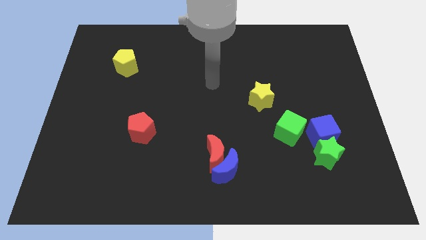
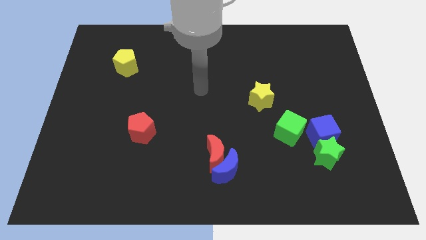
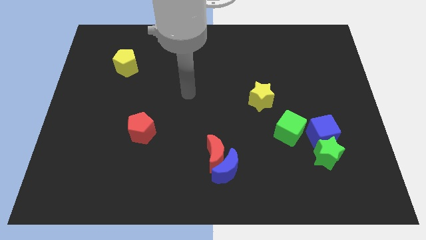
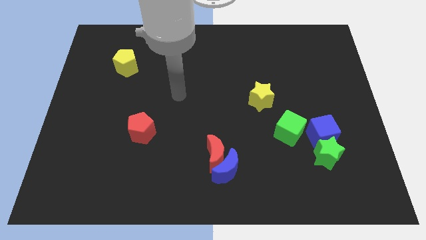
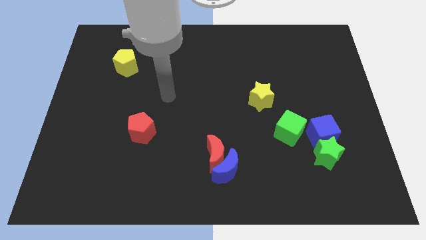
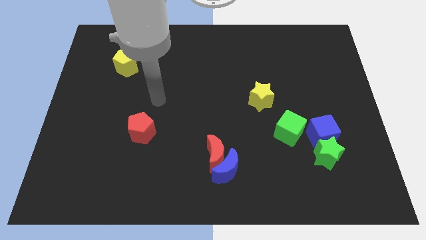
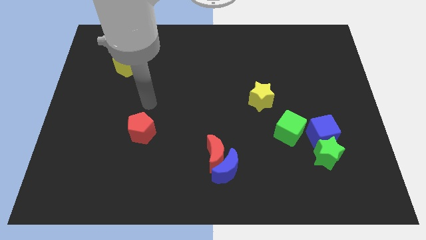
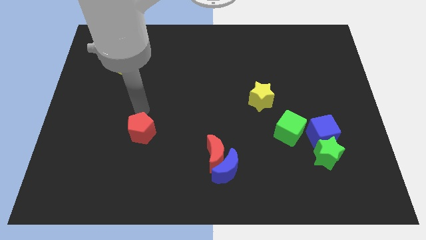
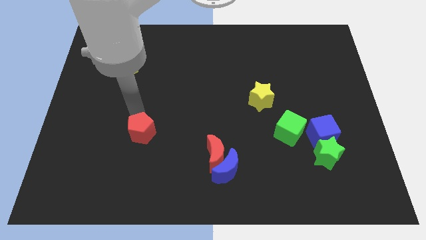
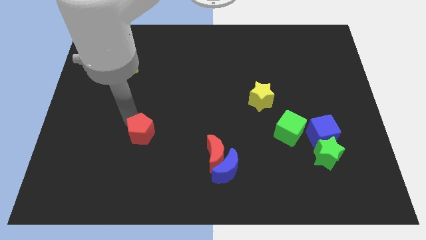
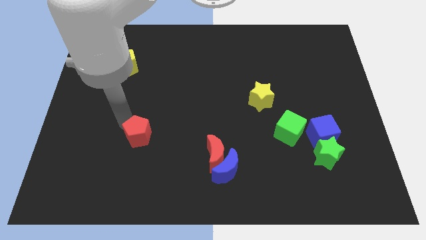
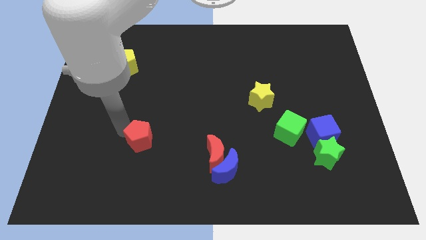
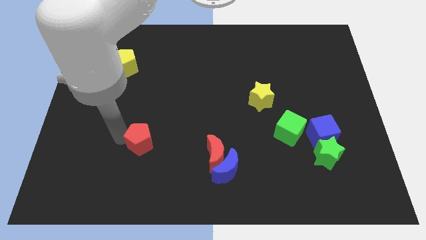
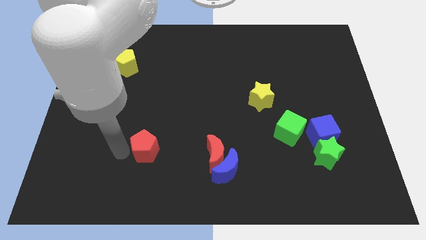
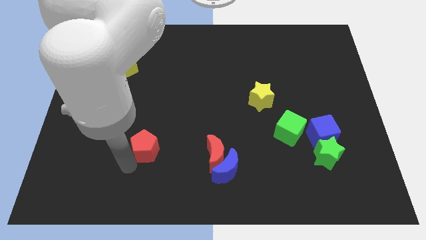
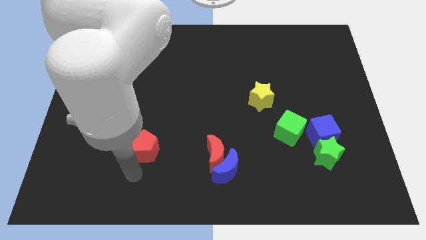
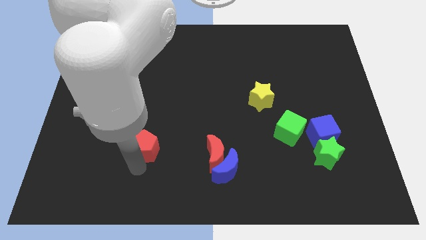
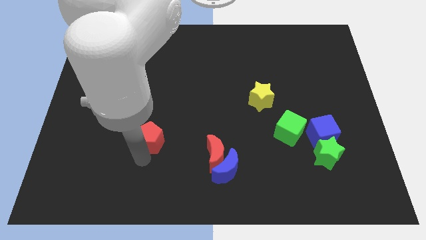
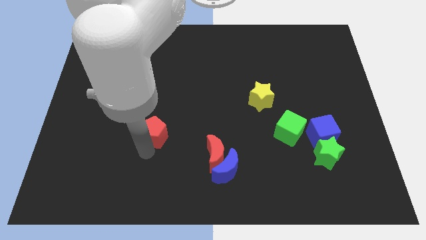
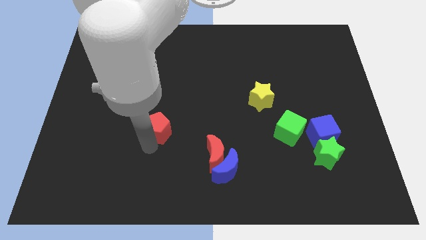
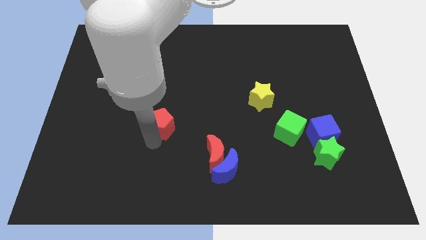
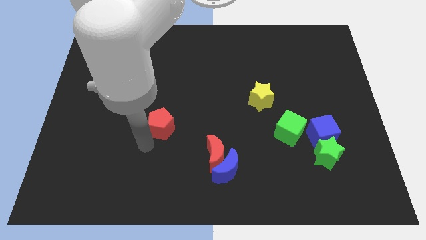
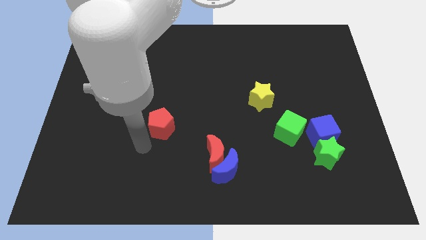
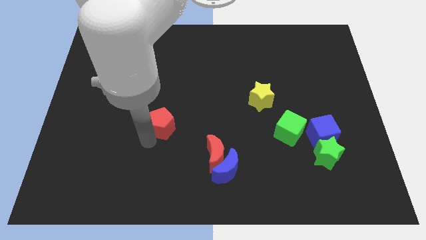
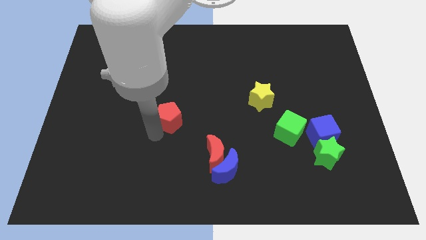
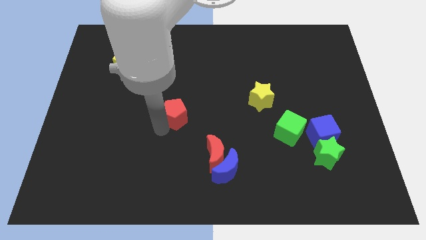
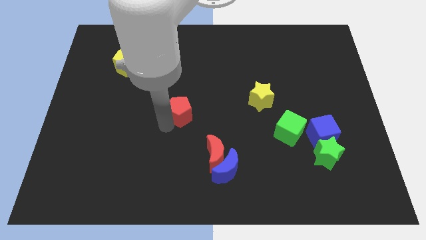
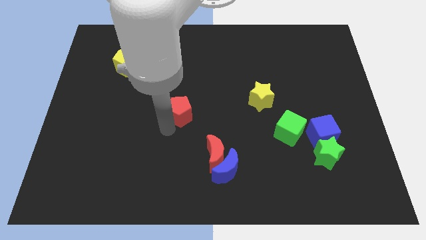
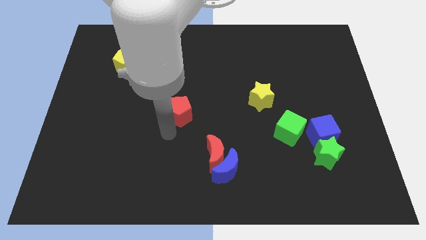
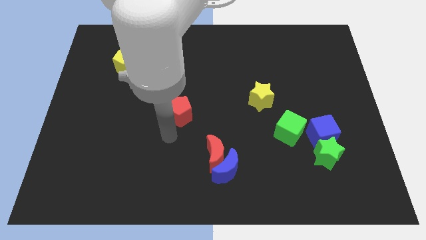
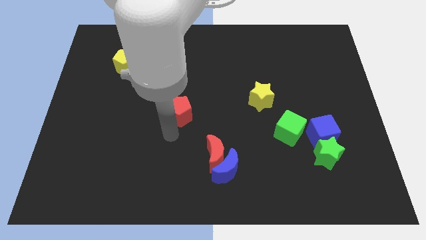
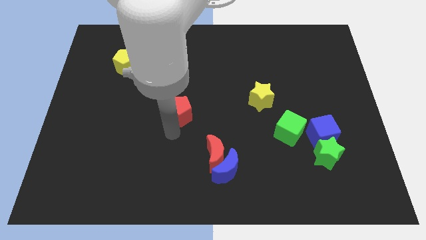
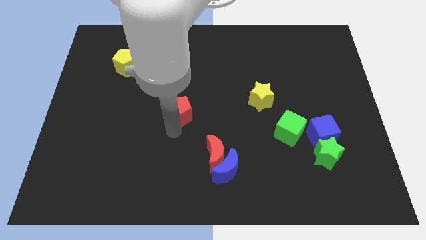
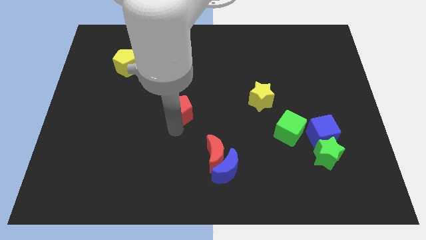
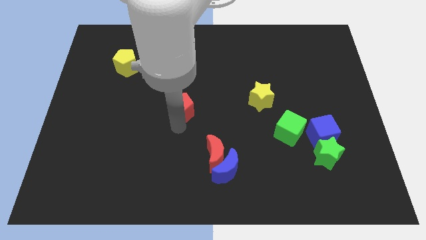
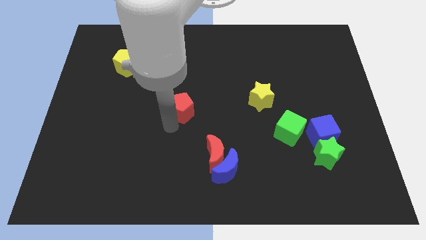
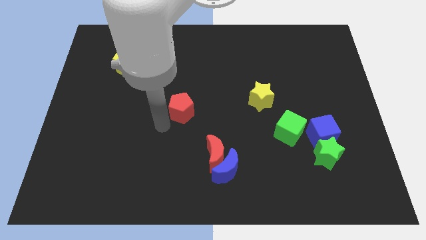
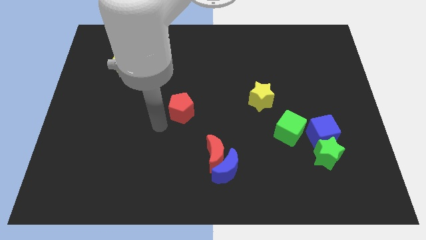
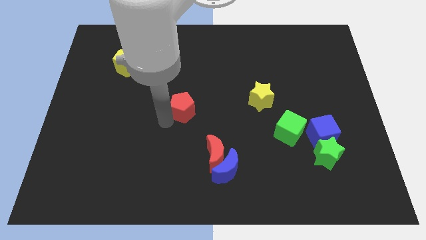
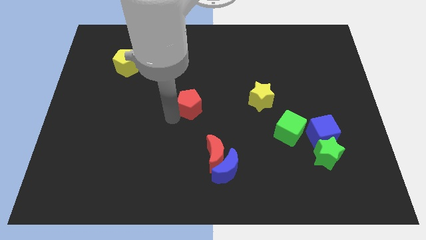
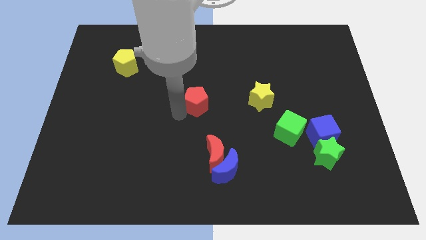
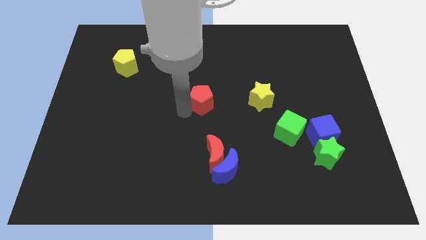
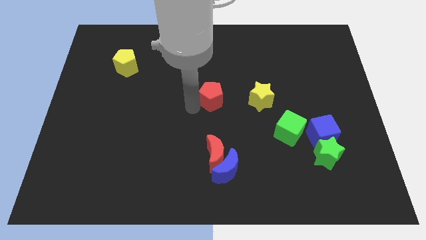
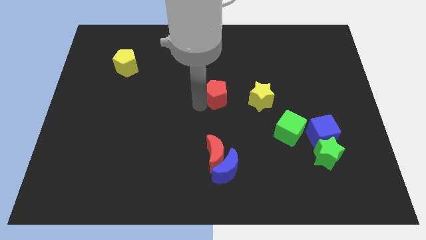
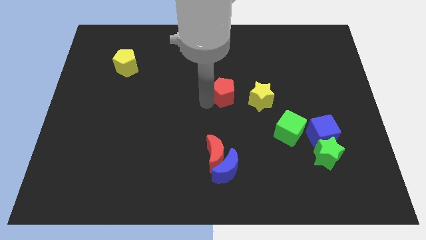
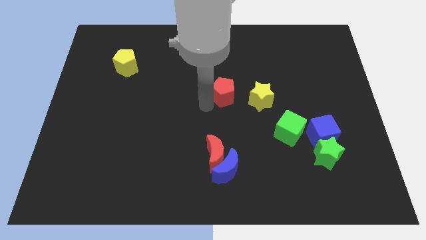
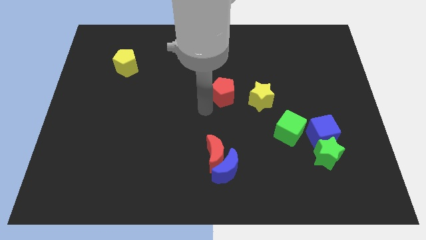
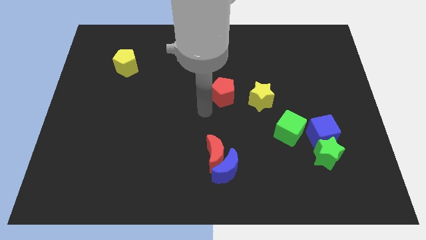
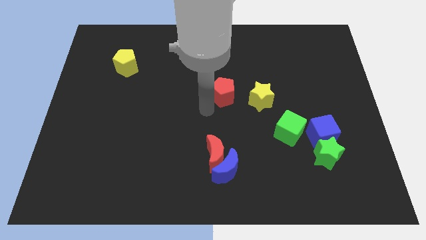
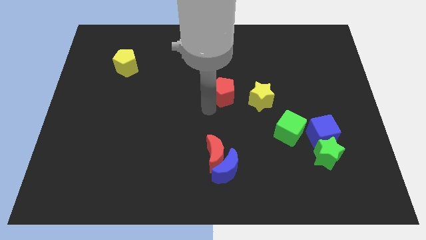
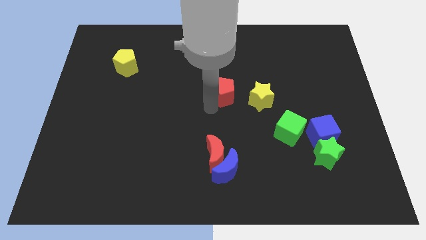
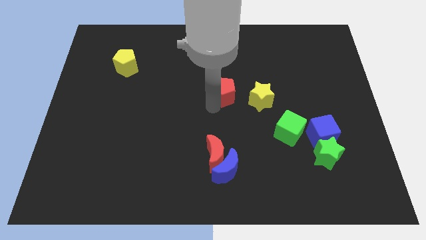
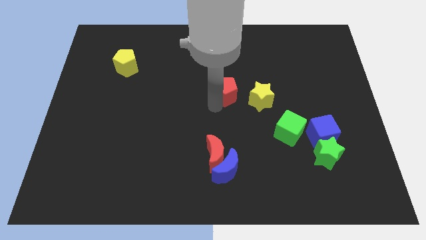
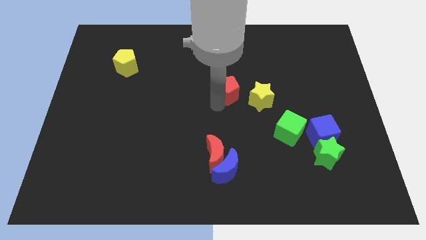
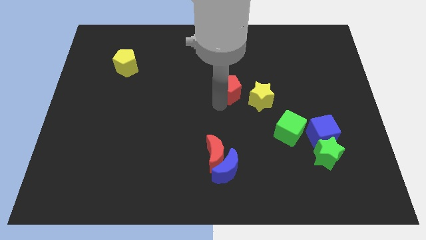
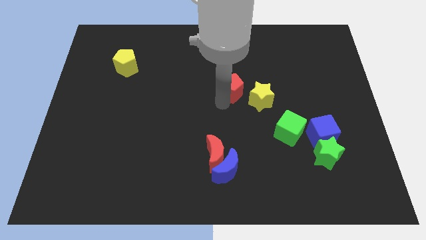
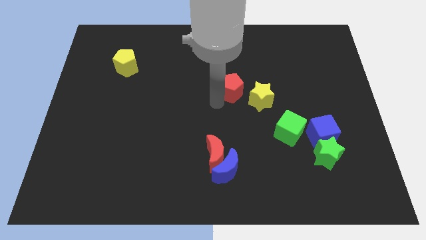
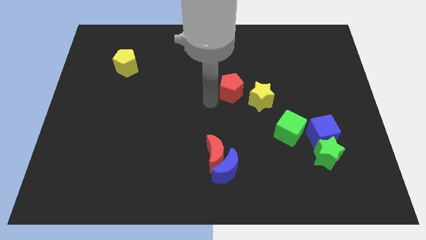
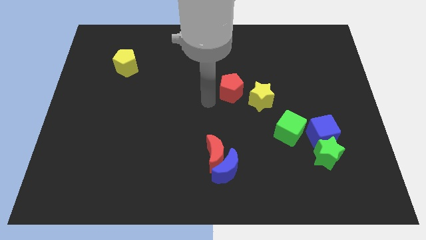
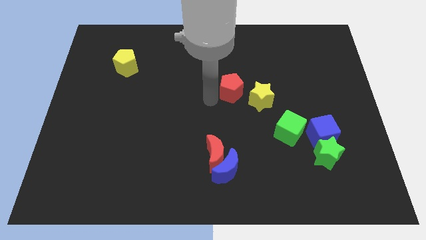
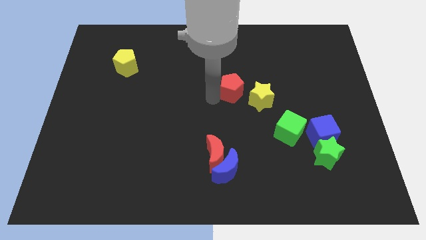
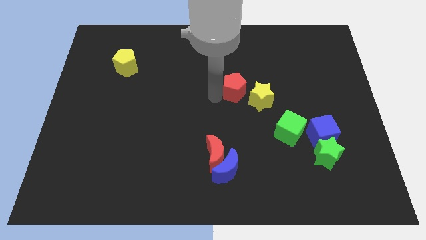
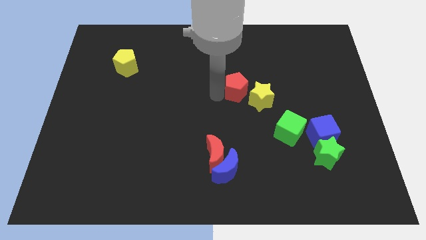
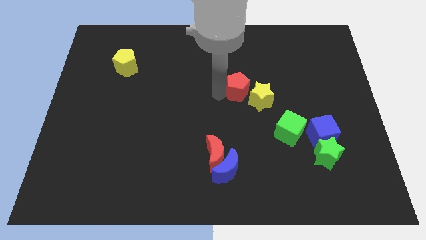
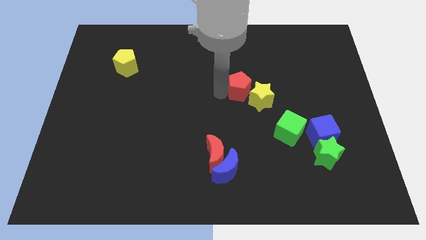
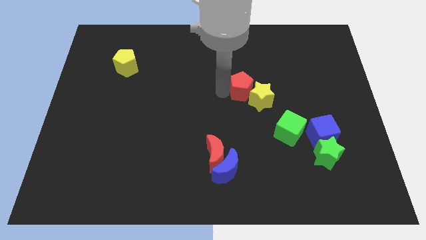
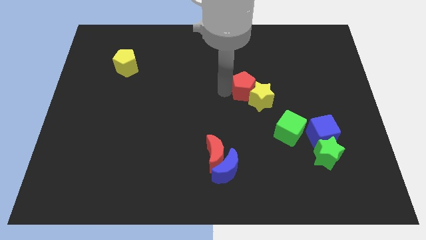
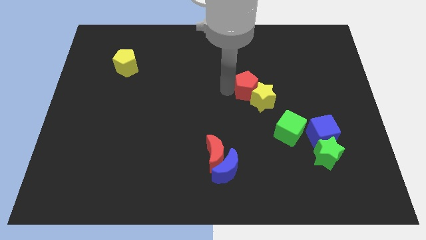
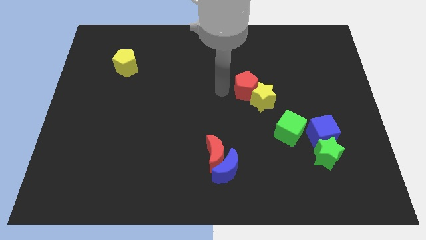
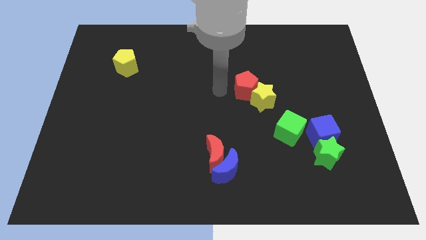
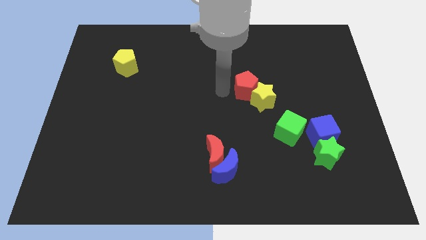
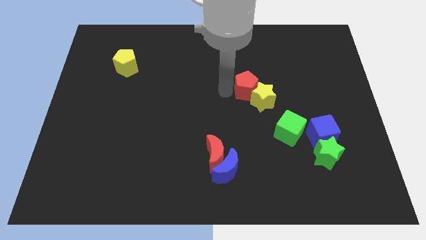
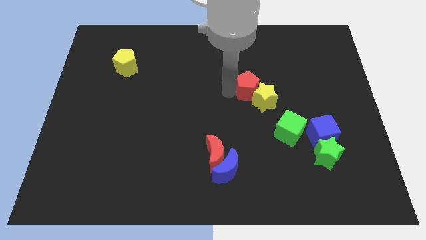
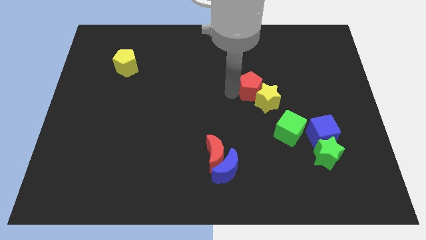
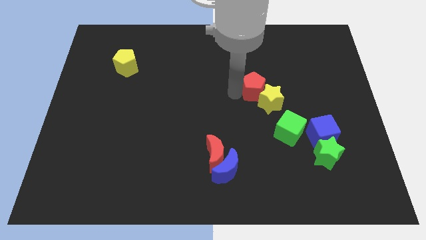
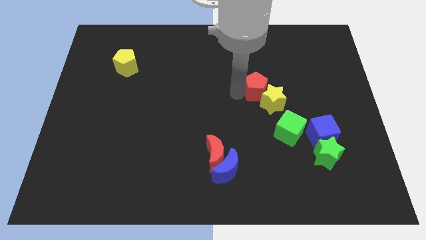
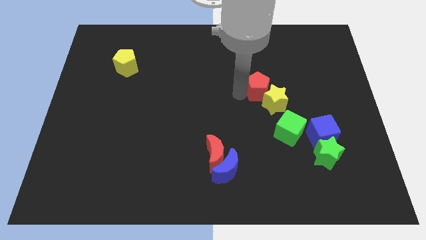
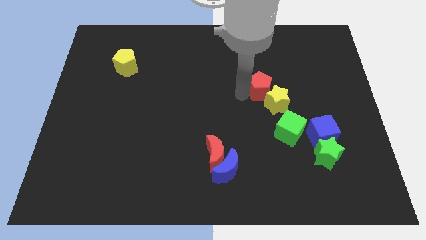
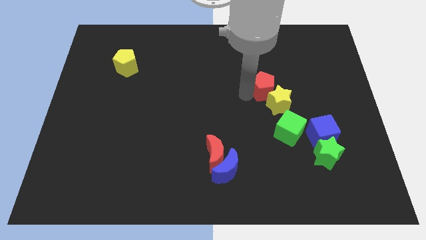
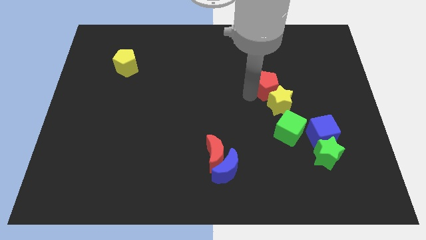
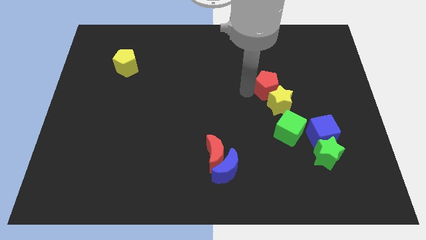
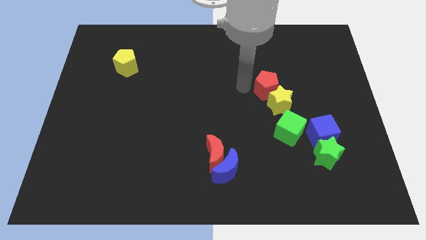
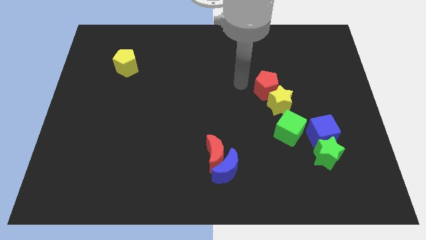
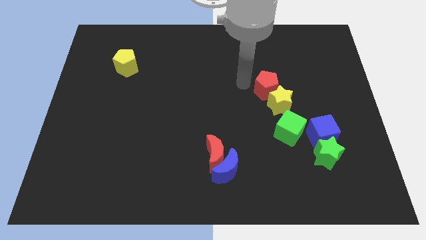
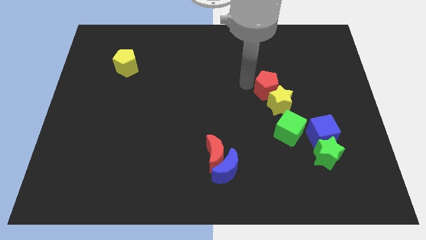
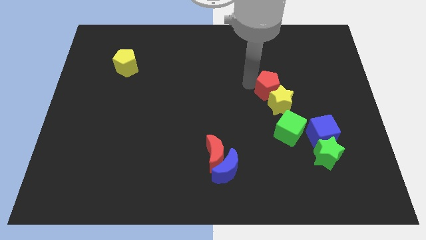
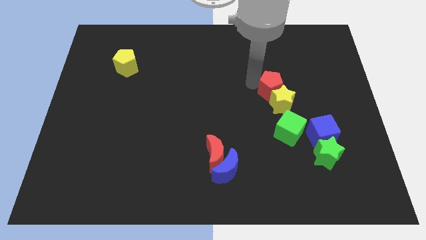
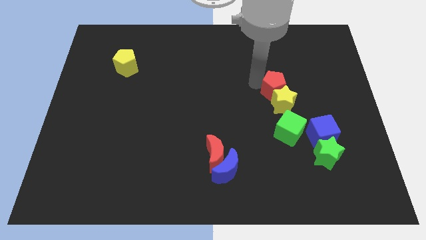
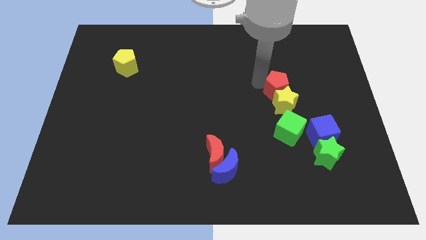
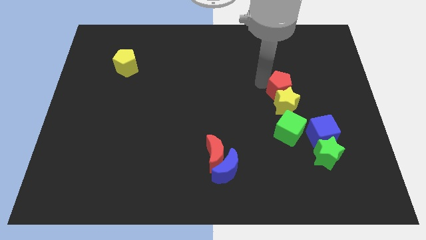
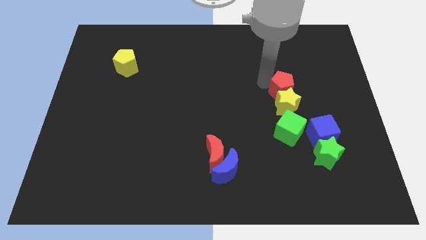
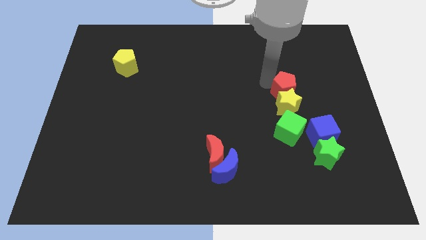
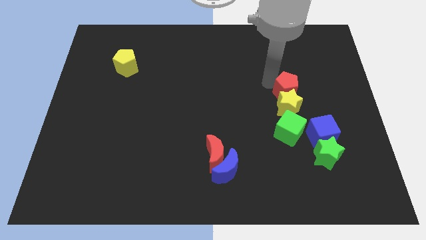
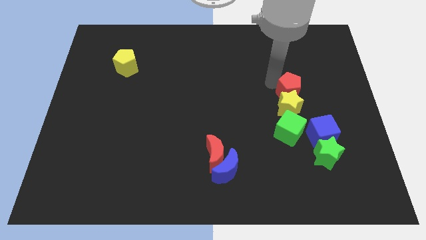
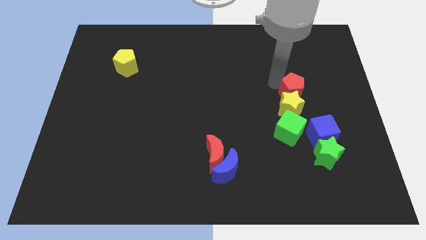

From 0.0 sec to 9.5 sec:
push the red pentagon to the top of the blue cube
